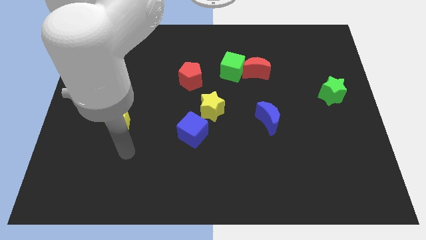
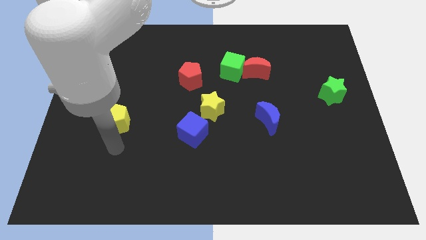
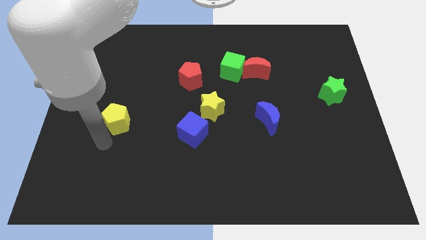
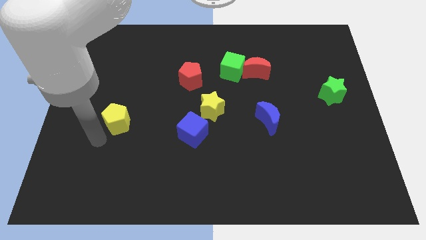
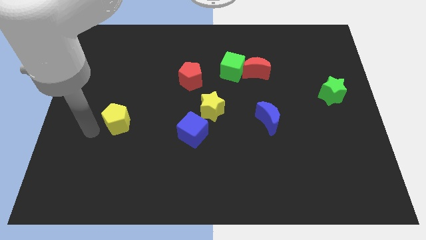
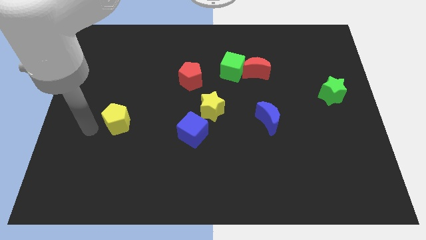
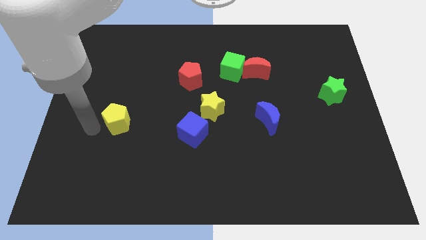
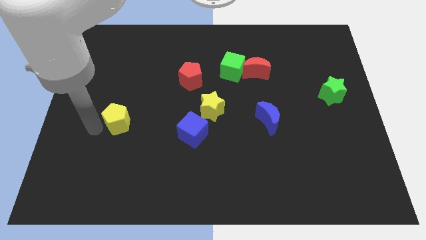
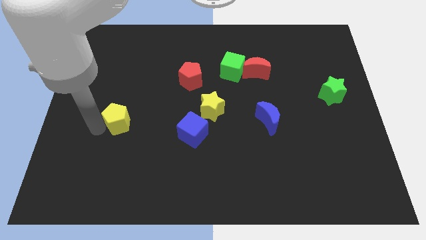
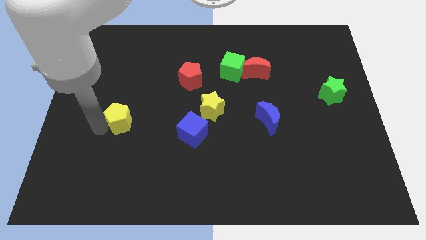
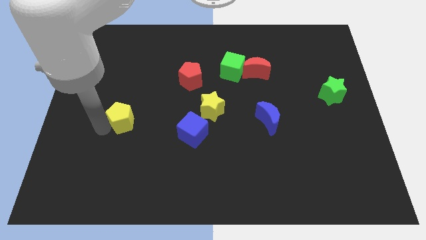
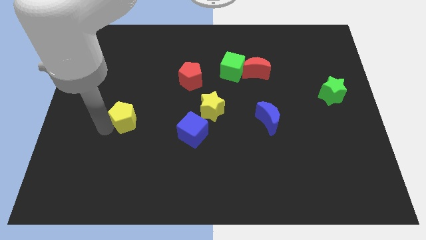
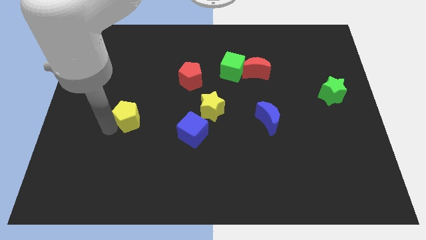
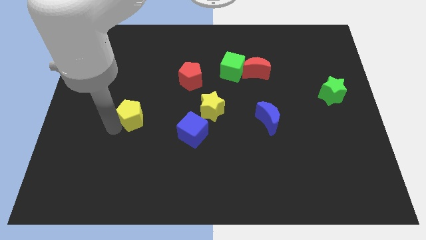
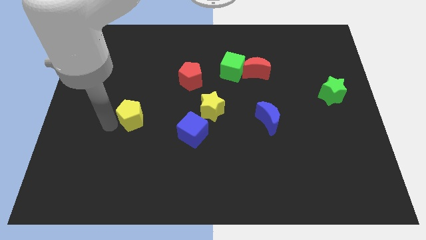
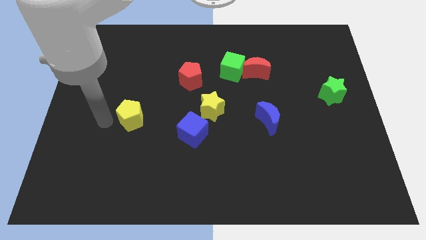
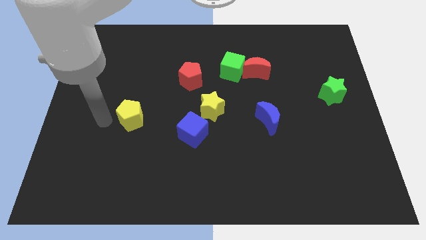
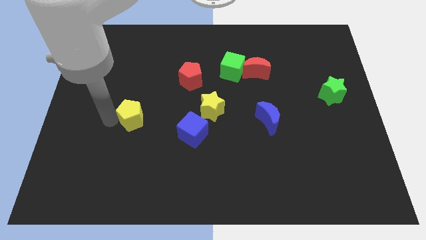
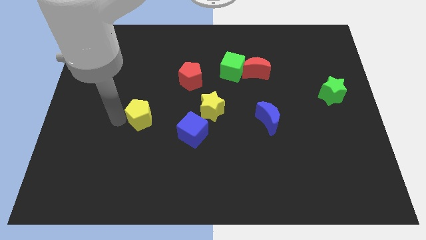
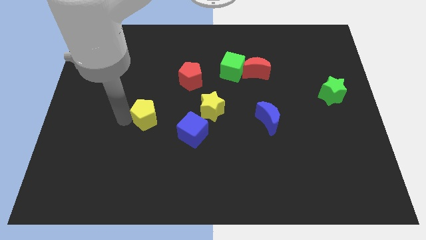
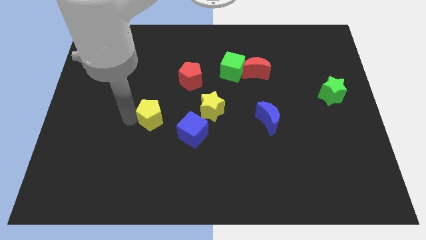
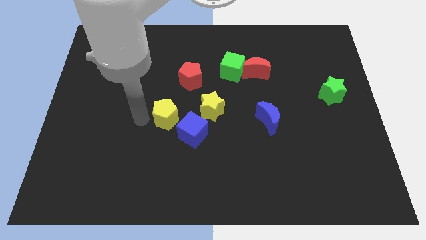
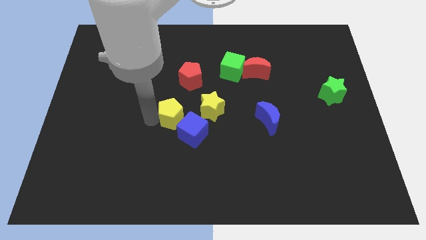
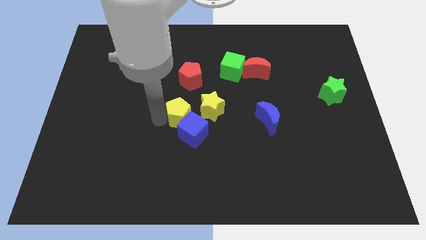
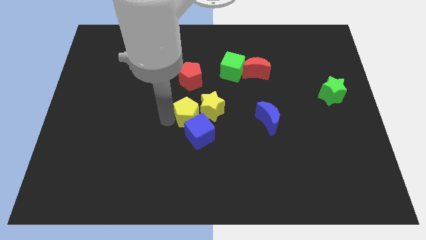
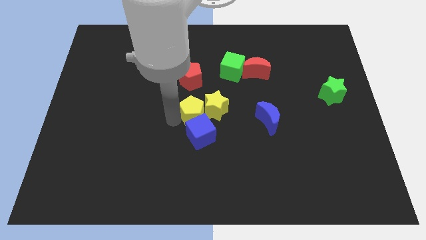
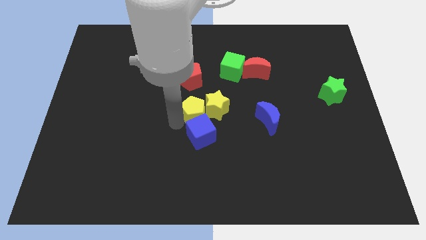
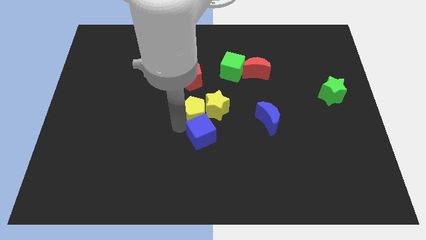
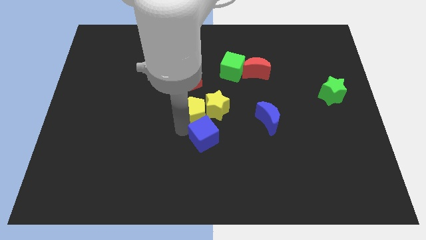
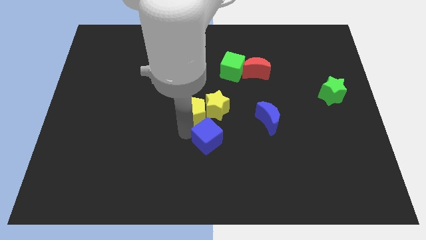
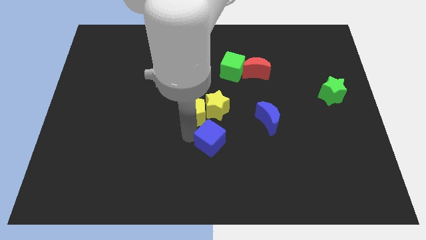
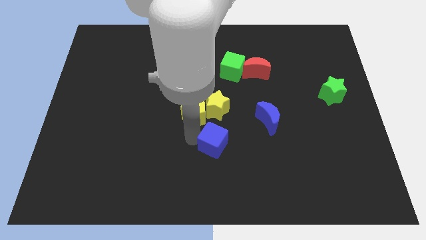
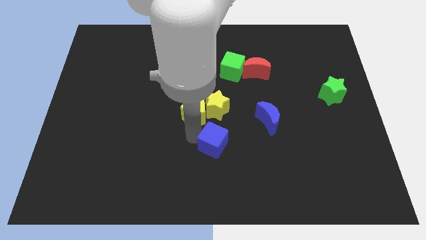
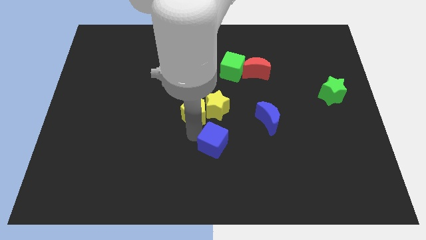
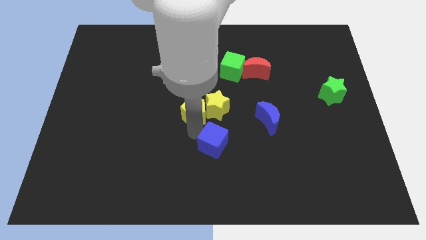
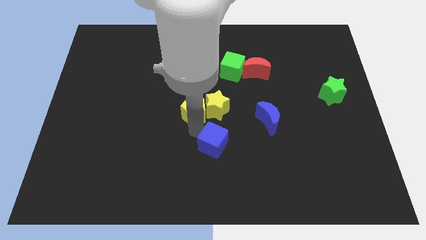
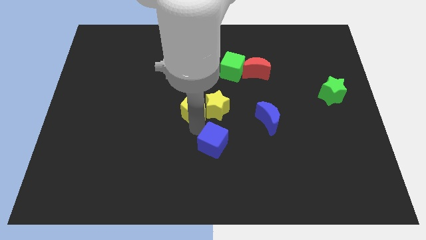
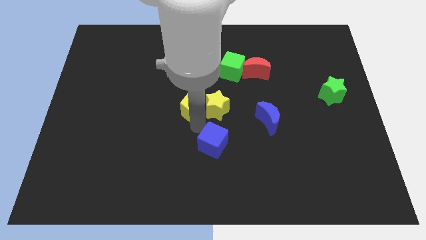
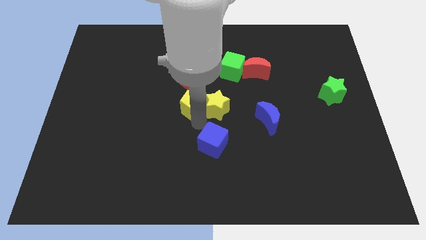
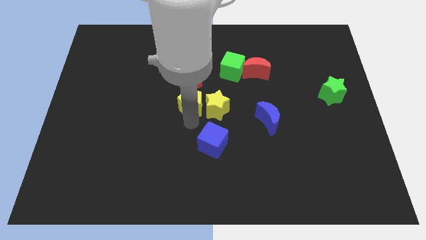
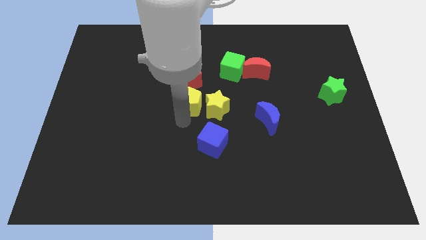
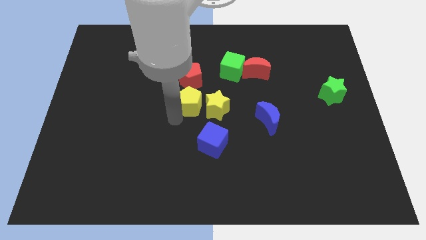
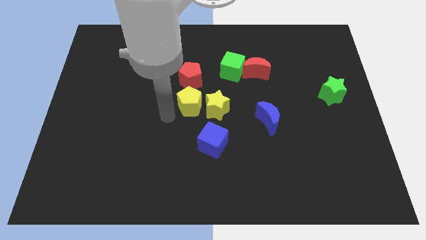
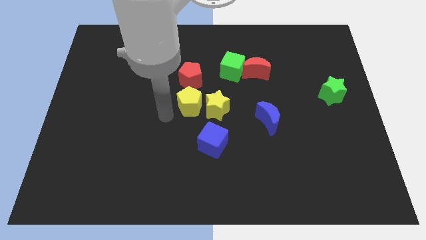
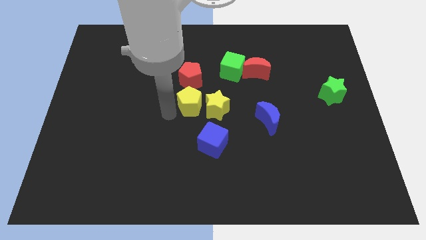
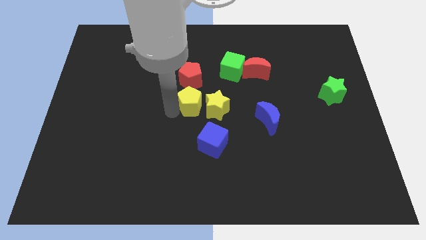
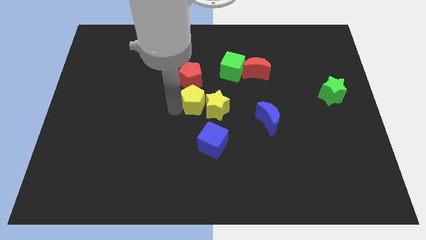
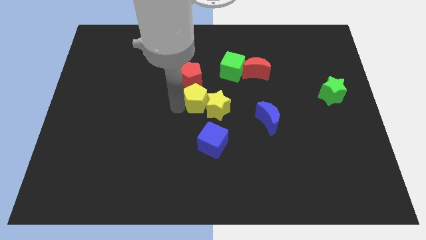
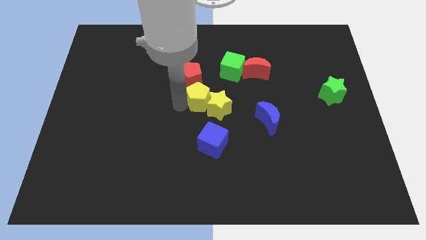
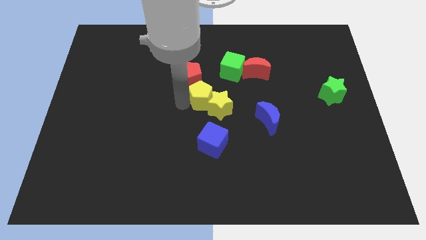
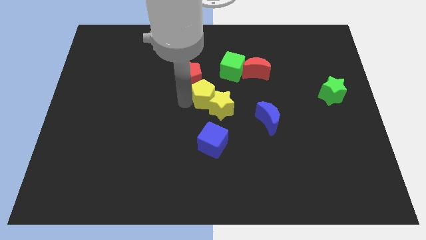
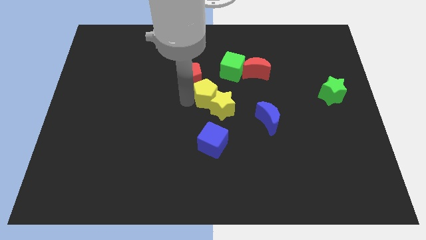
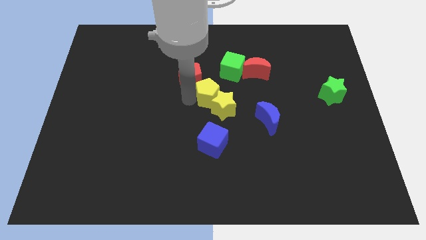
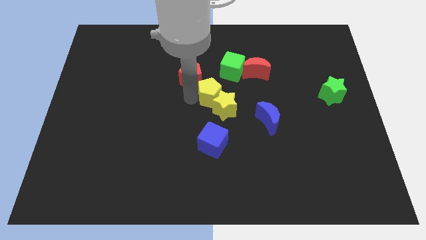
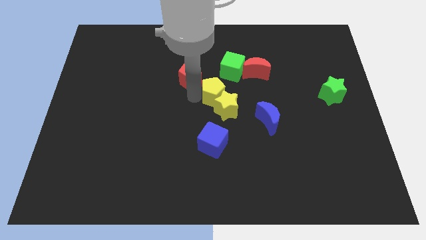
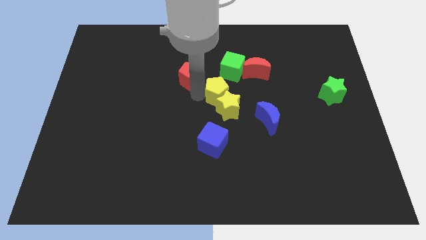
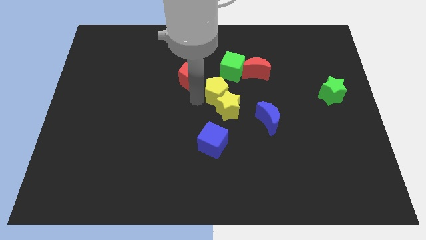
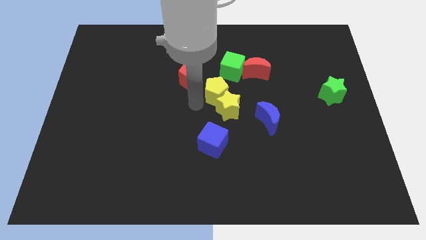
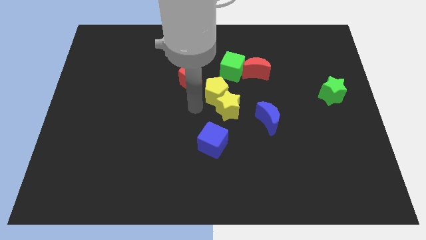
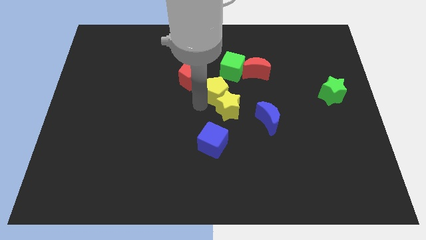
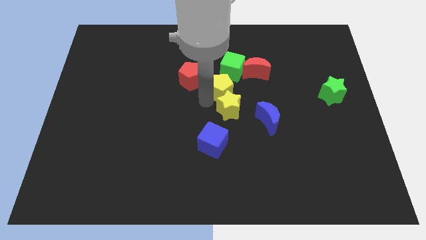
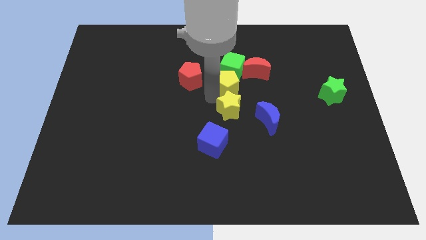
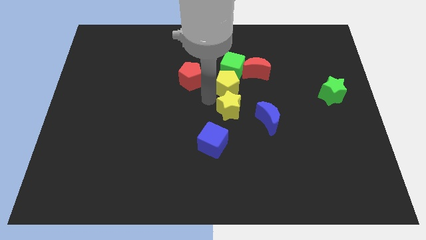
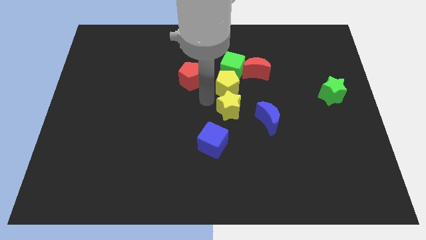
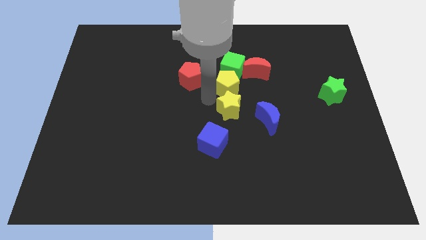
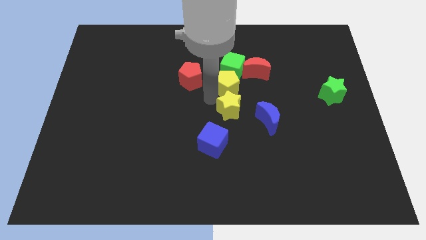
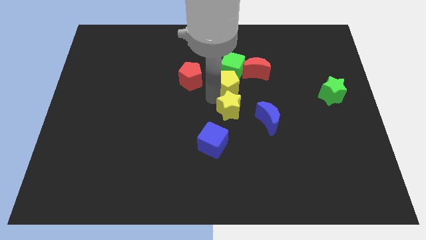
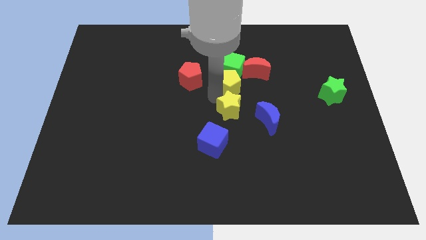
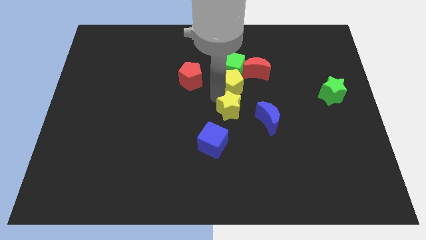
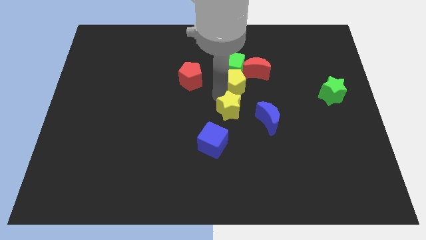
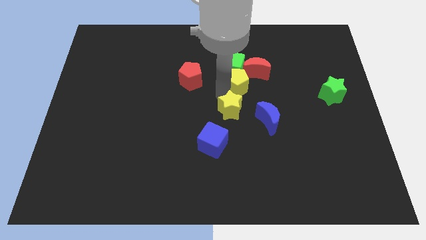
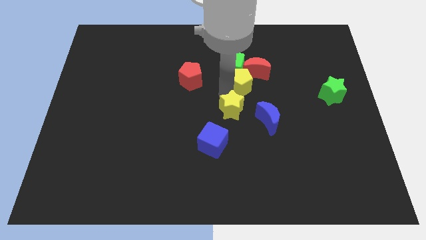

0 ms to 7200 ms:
move the yellow pentagon close to the red moon
